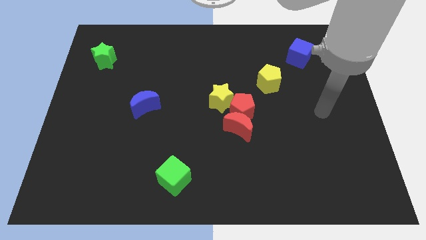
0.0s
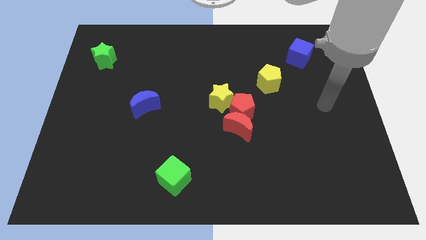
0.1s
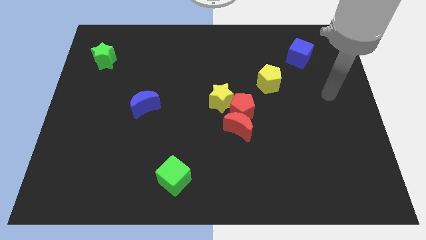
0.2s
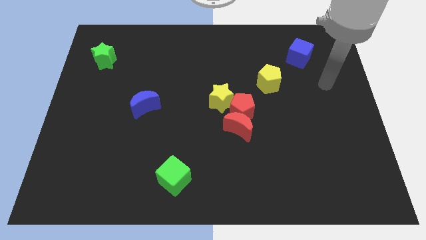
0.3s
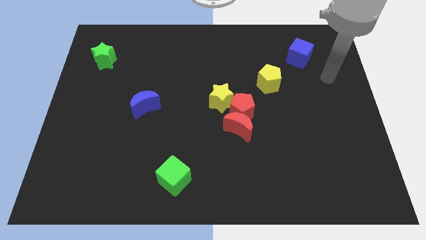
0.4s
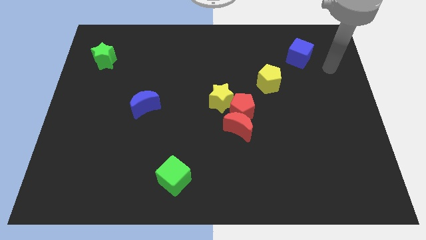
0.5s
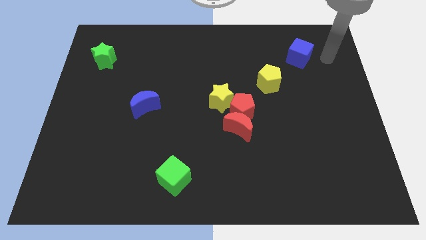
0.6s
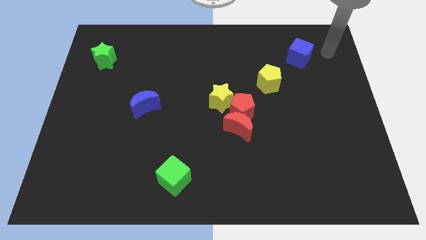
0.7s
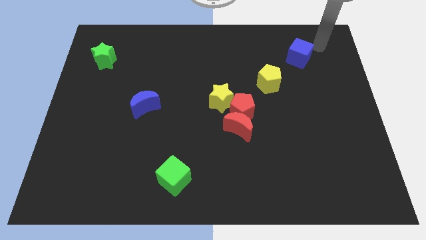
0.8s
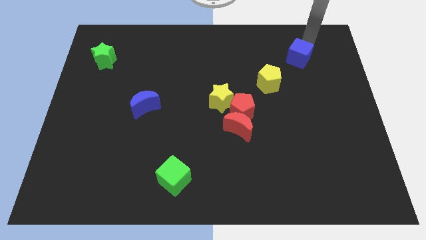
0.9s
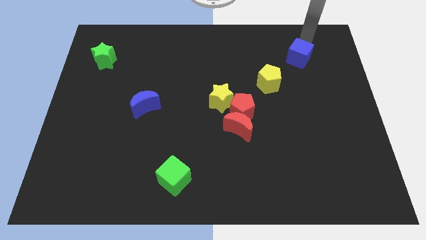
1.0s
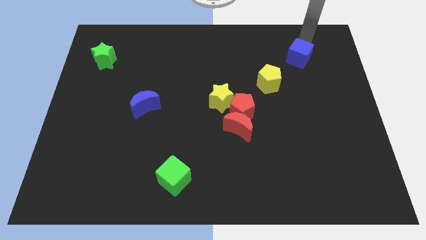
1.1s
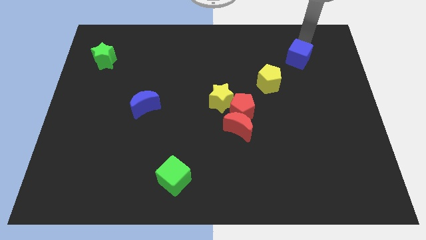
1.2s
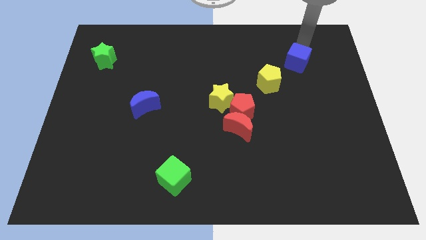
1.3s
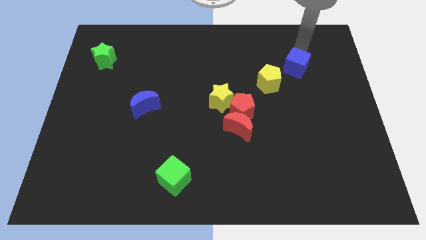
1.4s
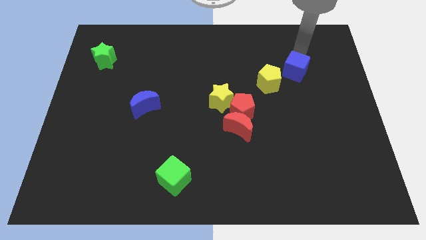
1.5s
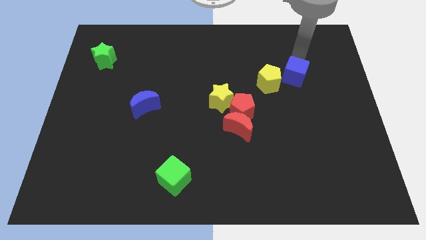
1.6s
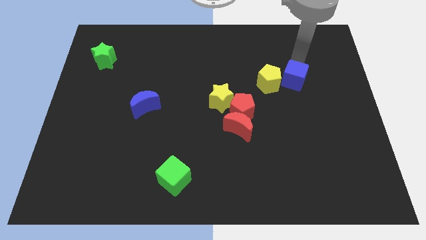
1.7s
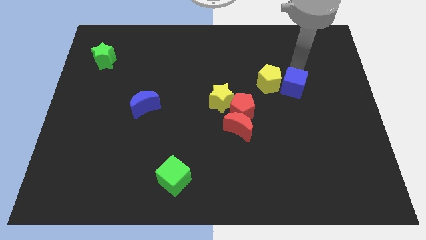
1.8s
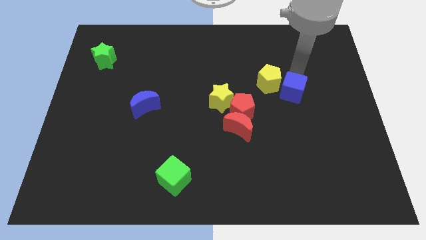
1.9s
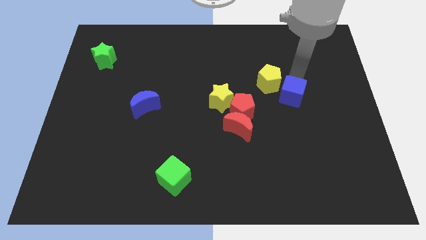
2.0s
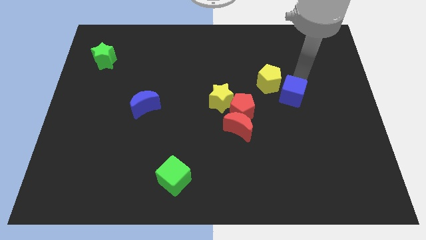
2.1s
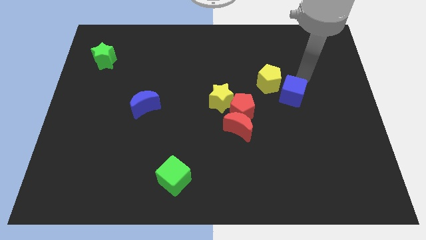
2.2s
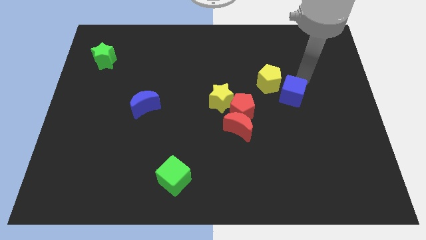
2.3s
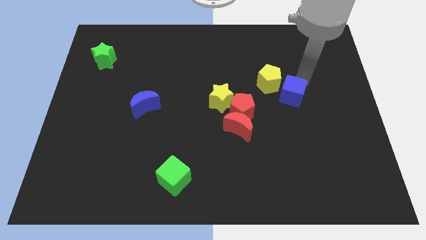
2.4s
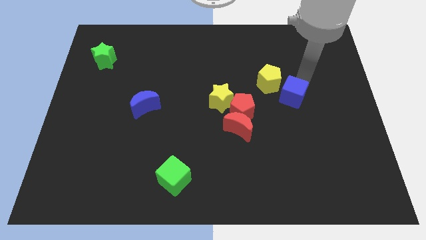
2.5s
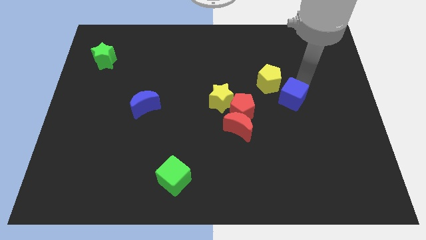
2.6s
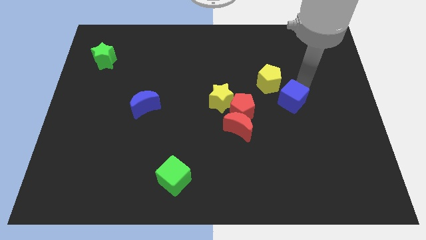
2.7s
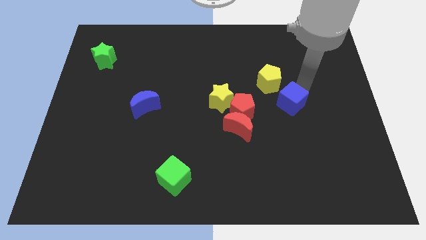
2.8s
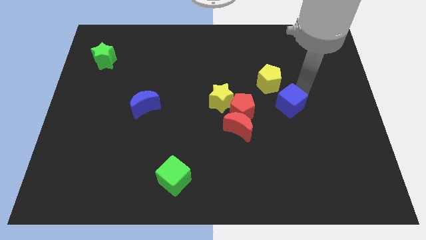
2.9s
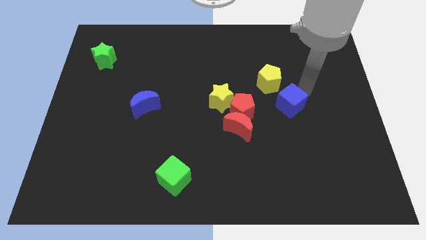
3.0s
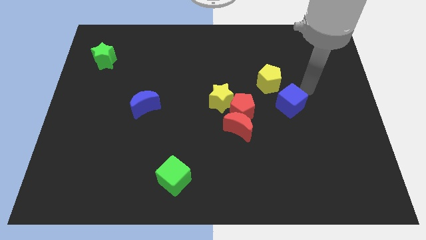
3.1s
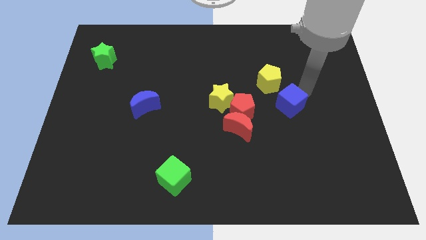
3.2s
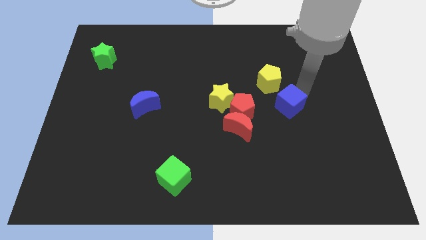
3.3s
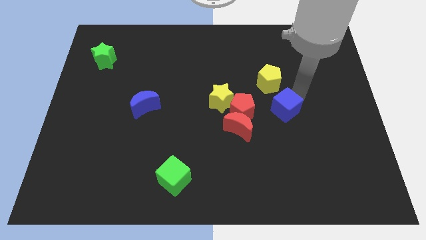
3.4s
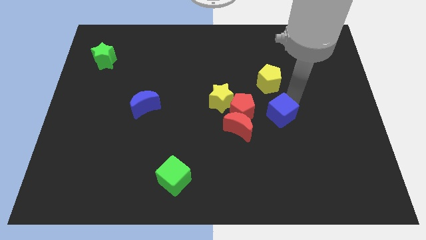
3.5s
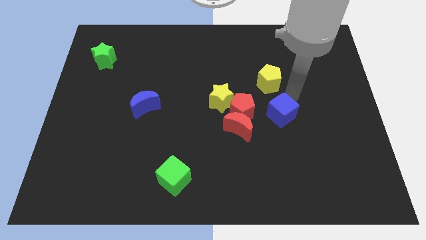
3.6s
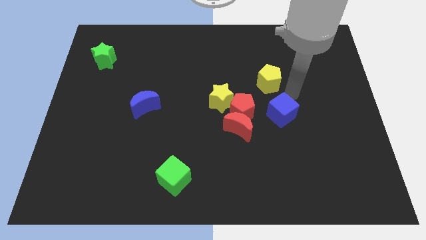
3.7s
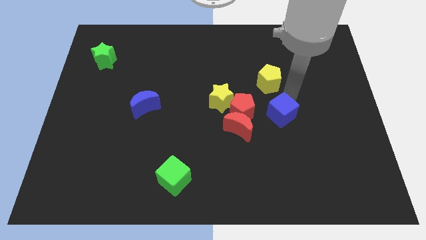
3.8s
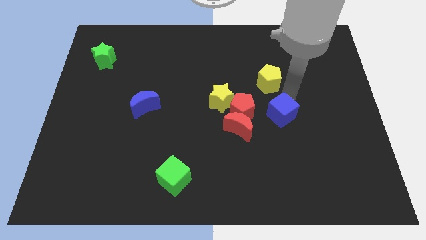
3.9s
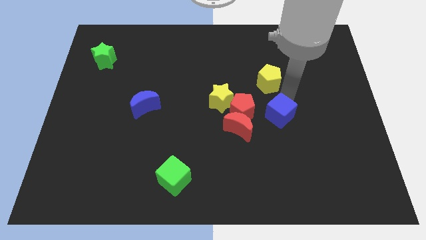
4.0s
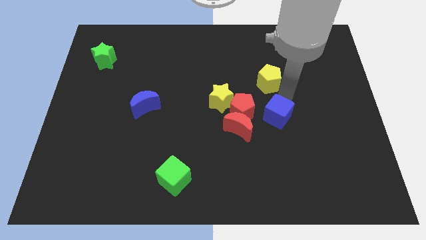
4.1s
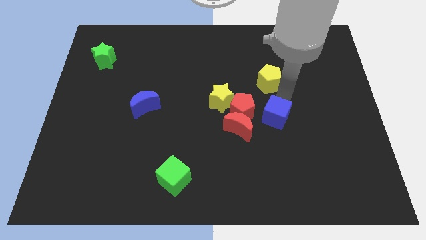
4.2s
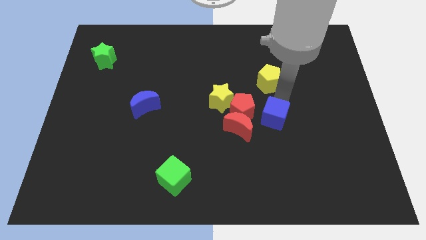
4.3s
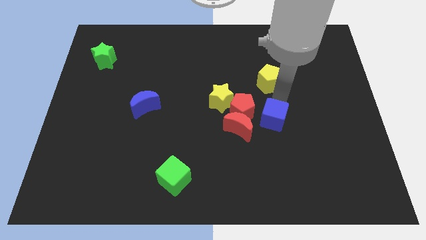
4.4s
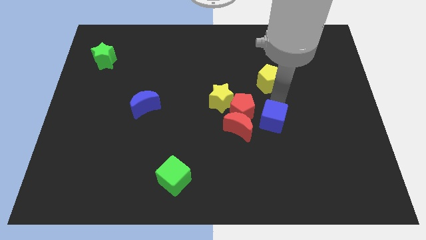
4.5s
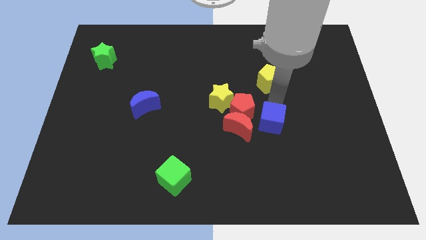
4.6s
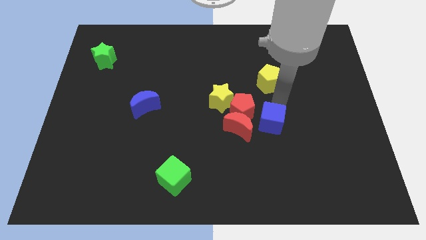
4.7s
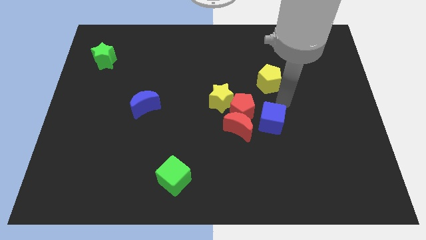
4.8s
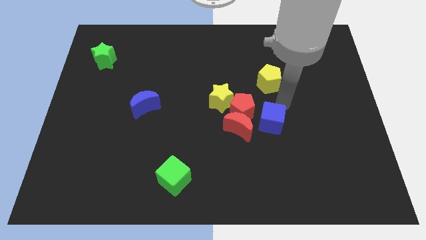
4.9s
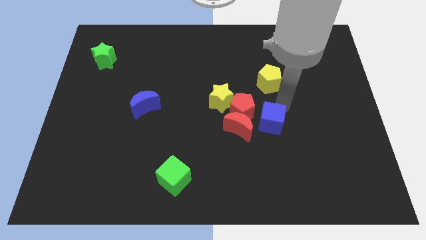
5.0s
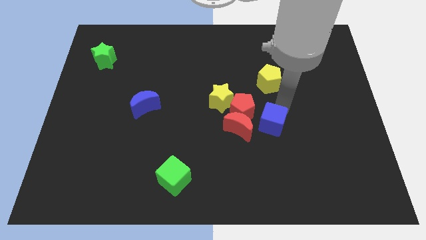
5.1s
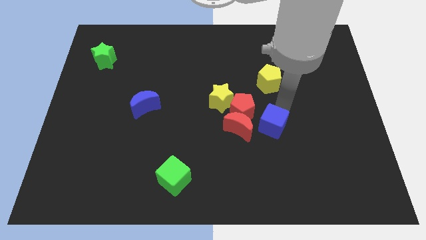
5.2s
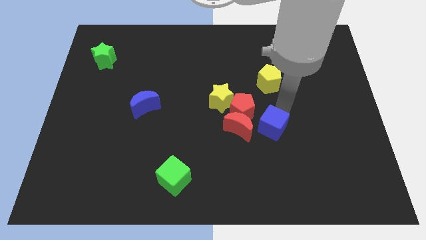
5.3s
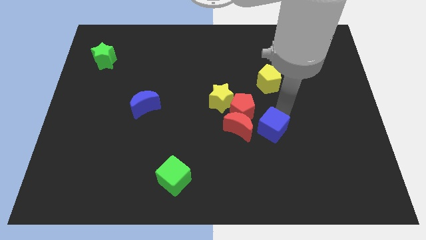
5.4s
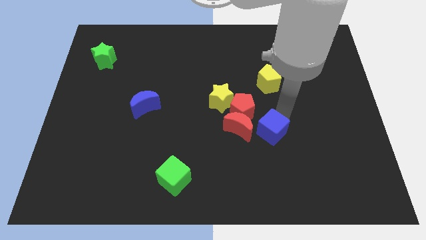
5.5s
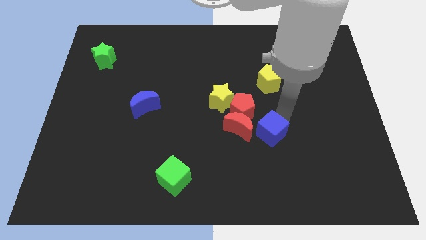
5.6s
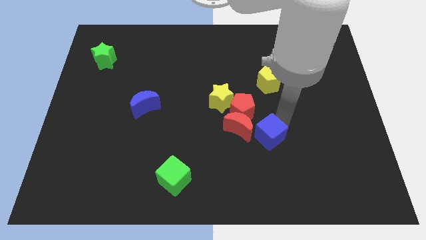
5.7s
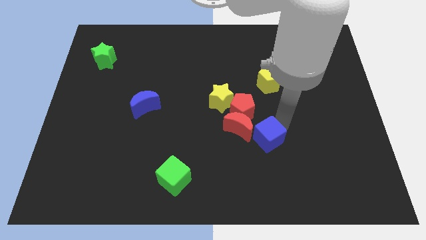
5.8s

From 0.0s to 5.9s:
slide the blue cube downwards and left diagonally

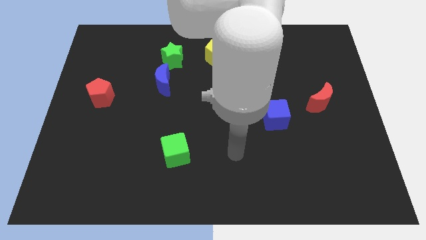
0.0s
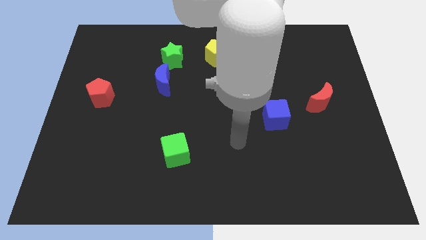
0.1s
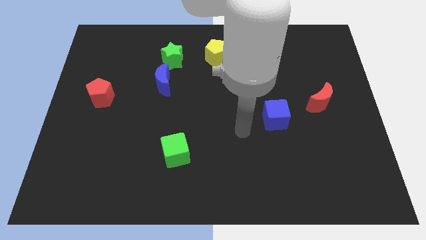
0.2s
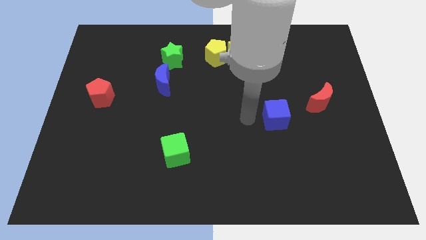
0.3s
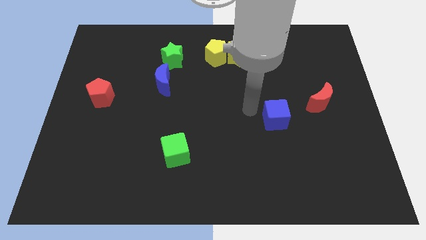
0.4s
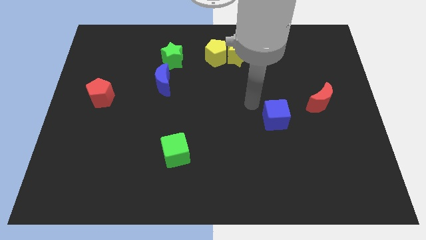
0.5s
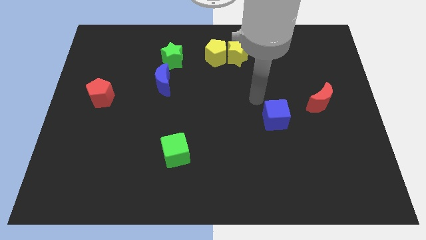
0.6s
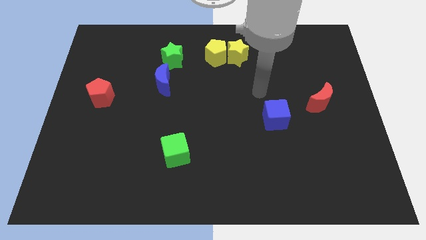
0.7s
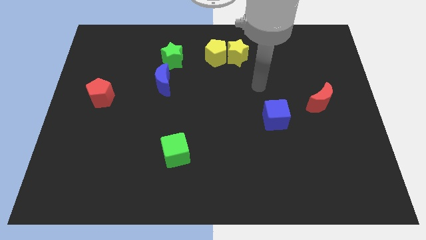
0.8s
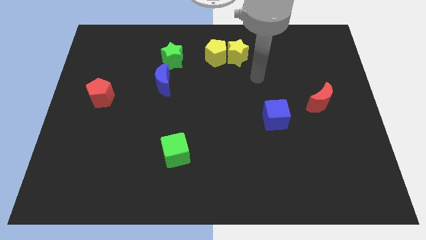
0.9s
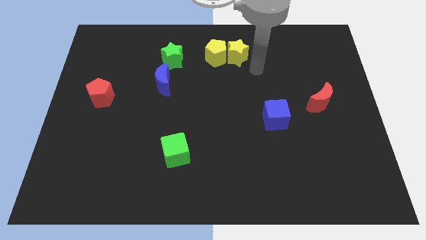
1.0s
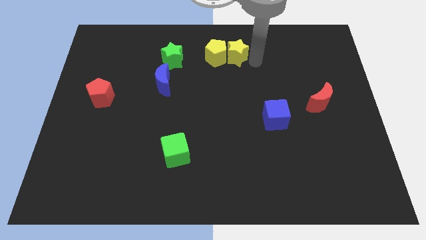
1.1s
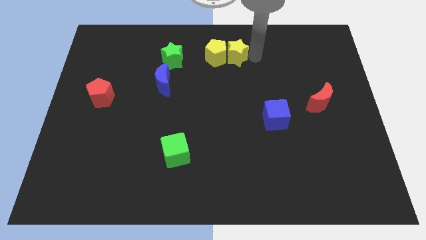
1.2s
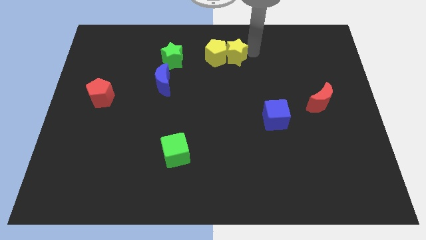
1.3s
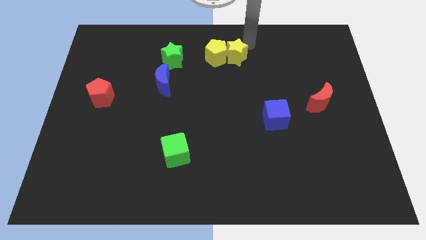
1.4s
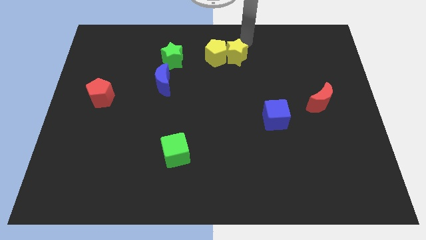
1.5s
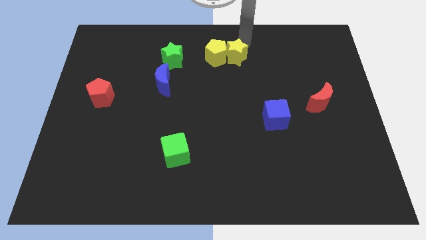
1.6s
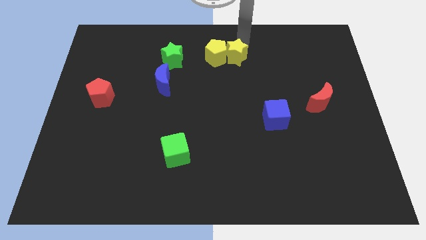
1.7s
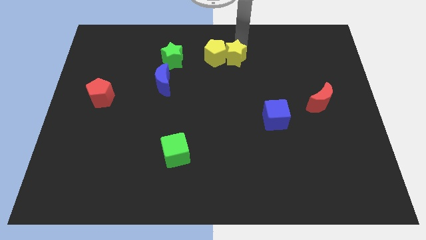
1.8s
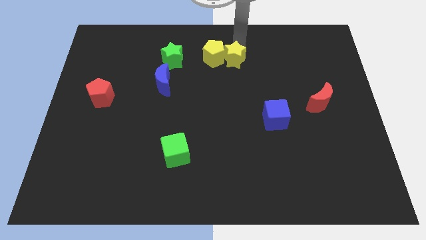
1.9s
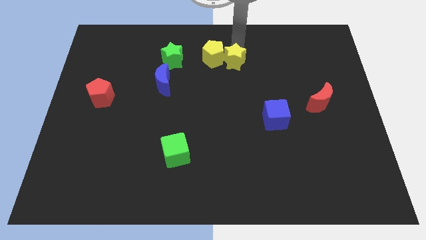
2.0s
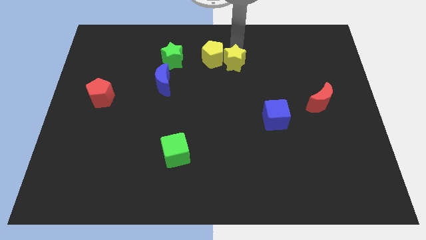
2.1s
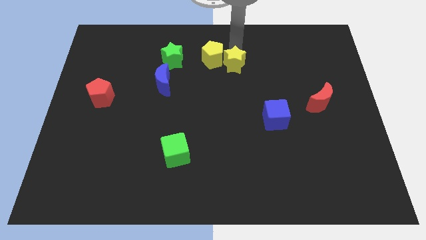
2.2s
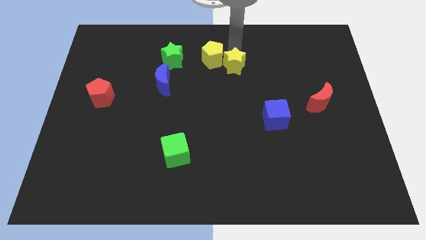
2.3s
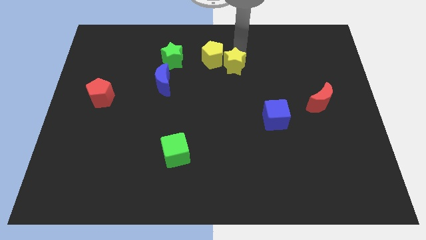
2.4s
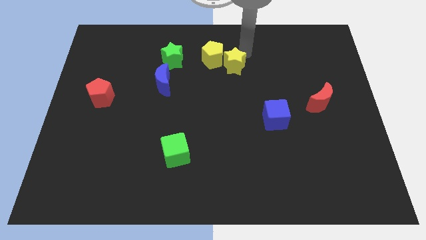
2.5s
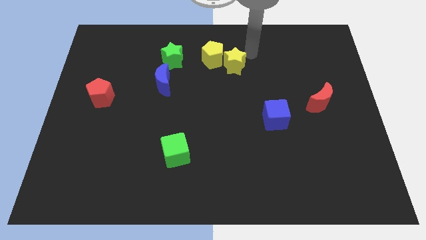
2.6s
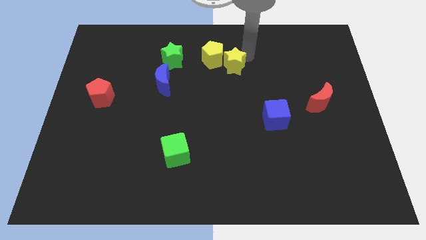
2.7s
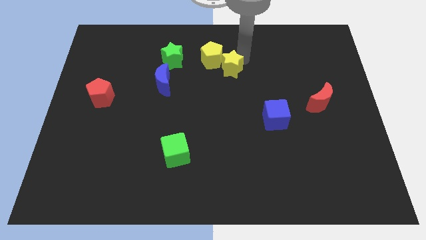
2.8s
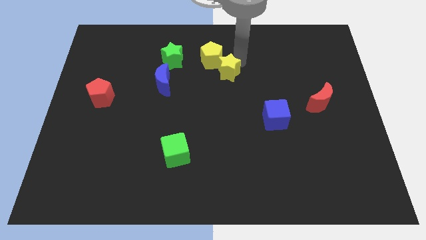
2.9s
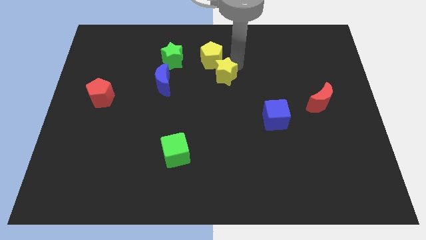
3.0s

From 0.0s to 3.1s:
slide the yellow star down and then to the left slightly
